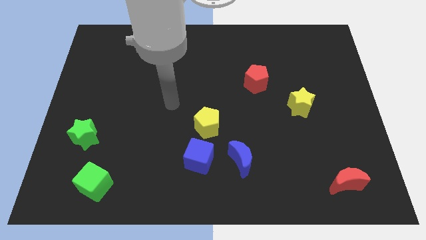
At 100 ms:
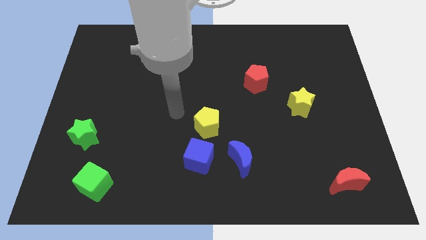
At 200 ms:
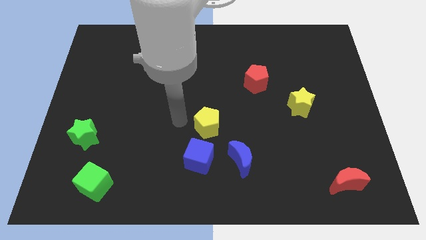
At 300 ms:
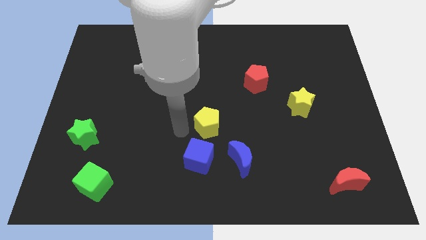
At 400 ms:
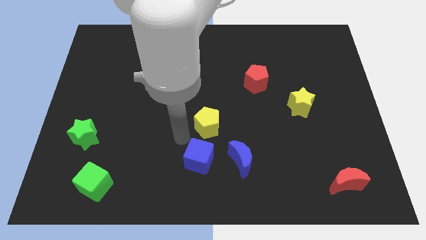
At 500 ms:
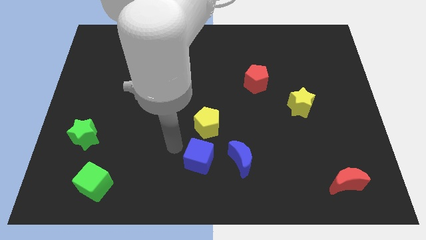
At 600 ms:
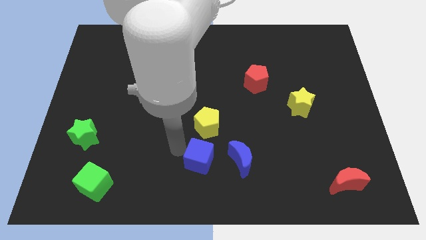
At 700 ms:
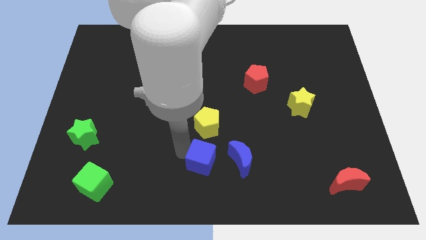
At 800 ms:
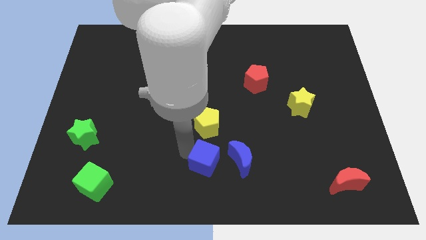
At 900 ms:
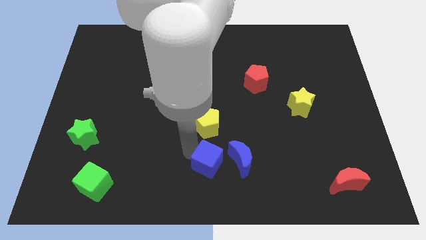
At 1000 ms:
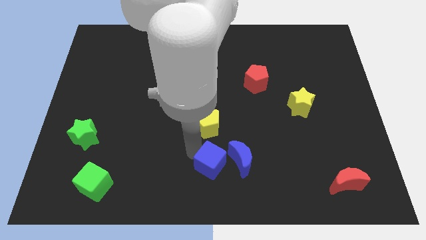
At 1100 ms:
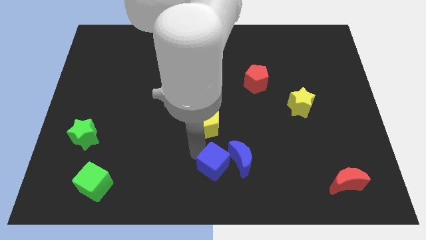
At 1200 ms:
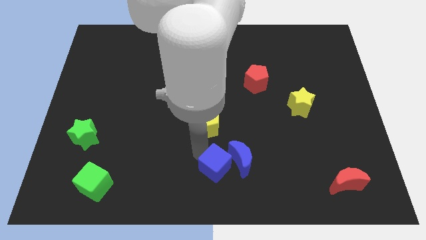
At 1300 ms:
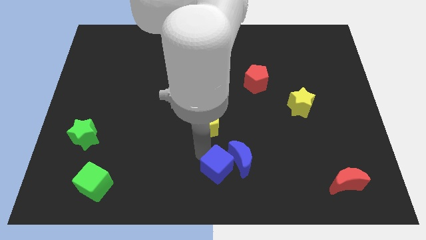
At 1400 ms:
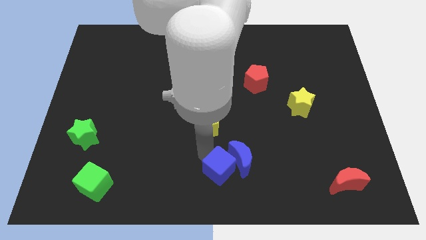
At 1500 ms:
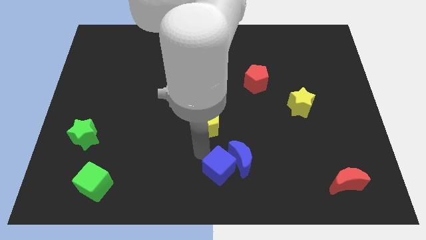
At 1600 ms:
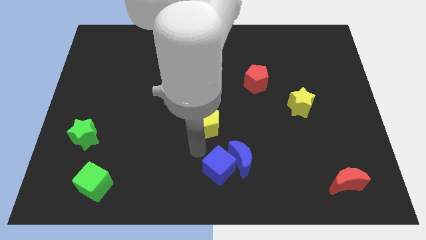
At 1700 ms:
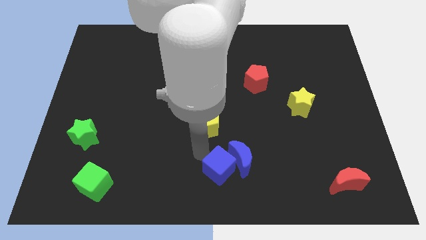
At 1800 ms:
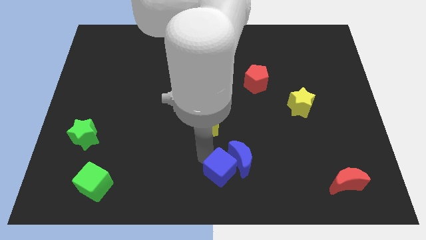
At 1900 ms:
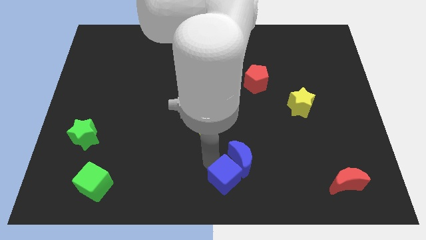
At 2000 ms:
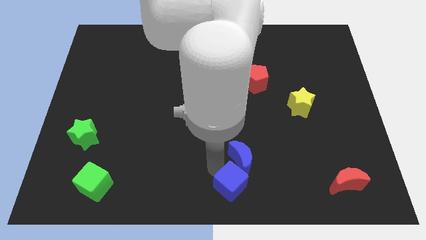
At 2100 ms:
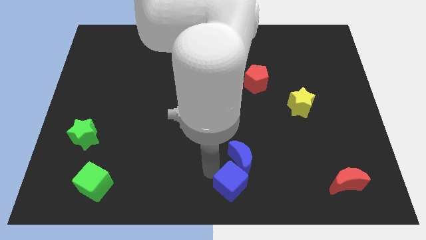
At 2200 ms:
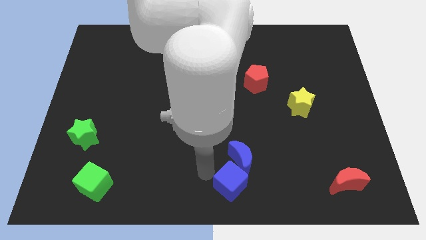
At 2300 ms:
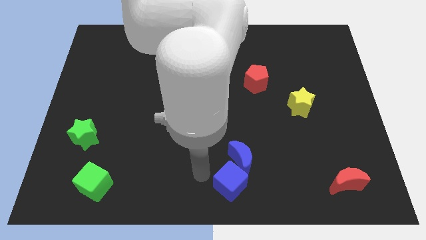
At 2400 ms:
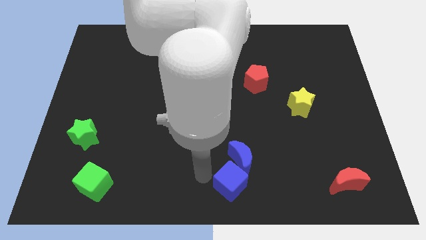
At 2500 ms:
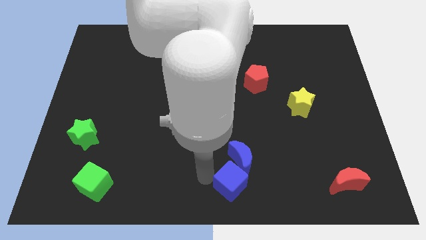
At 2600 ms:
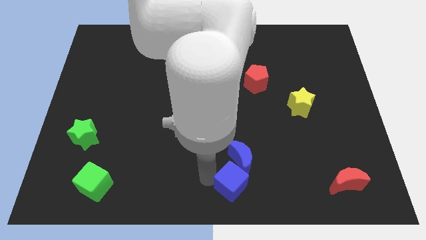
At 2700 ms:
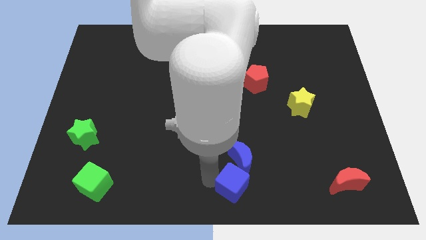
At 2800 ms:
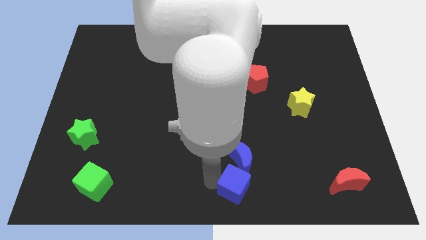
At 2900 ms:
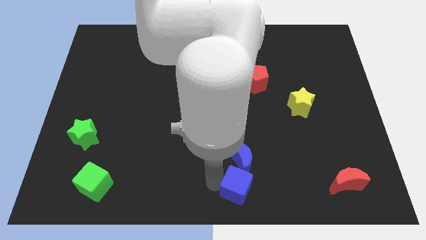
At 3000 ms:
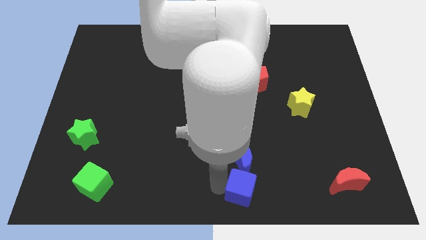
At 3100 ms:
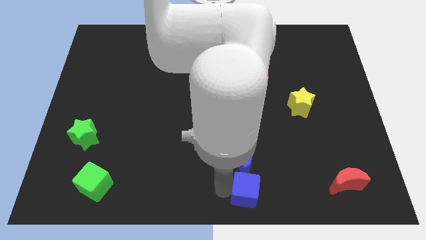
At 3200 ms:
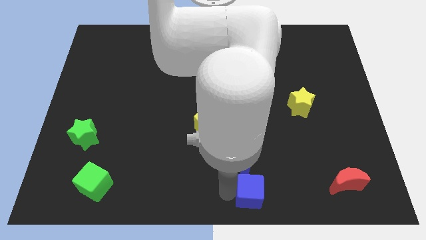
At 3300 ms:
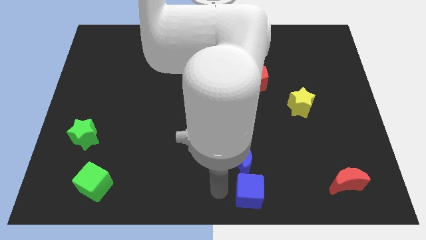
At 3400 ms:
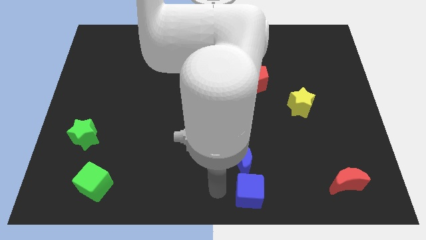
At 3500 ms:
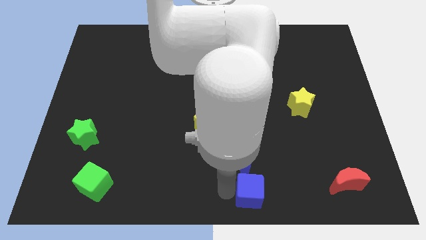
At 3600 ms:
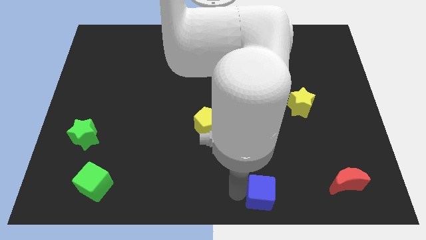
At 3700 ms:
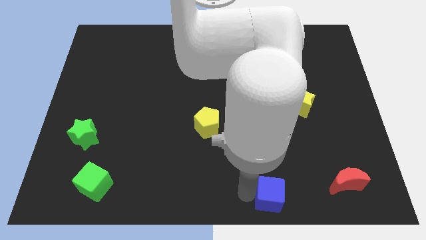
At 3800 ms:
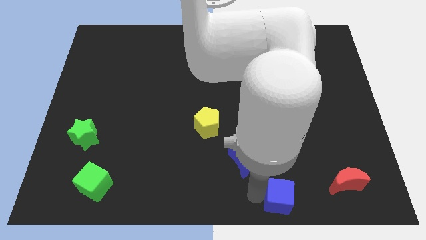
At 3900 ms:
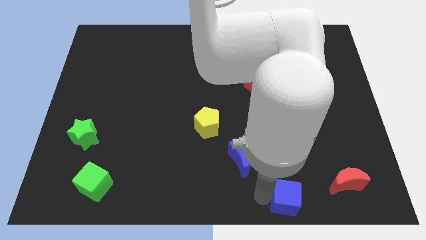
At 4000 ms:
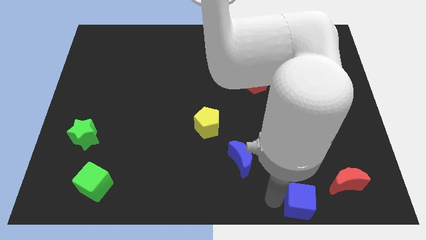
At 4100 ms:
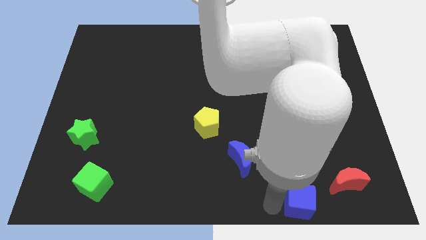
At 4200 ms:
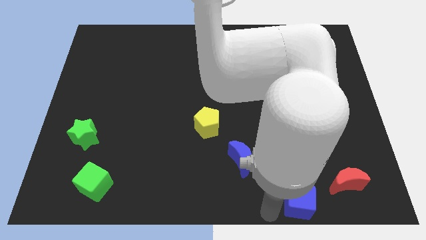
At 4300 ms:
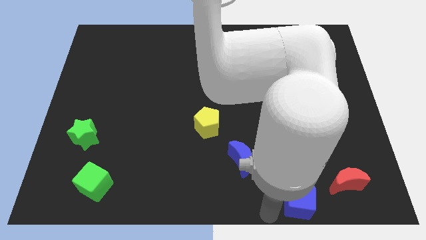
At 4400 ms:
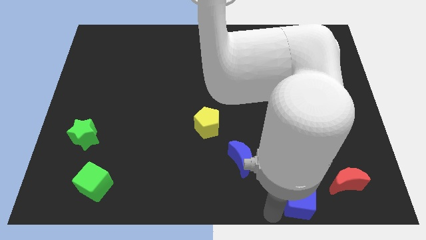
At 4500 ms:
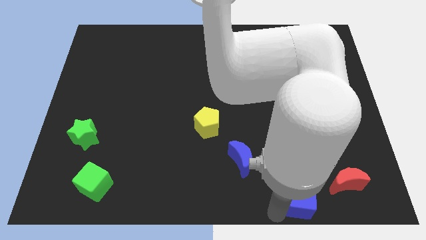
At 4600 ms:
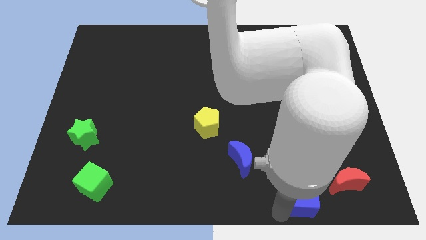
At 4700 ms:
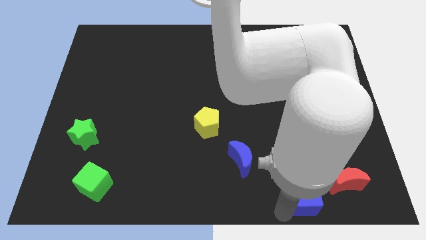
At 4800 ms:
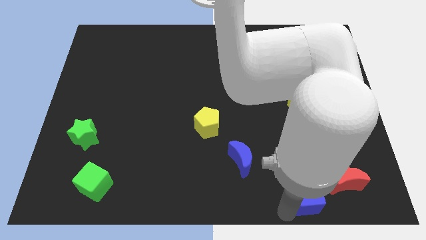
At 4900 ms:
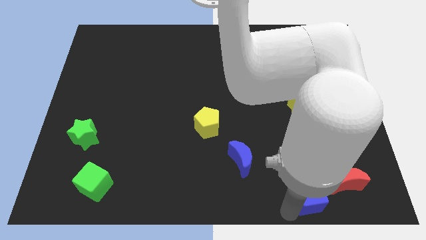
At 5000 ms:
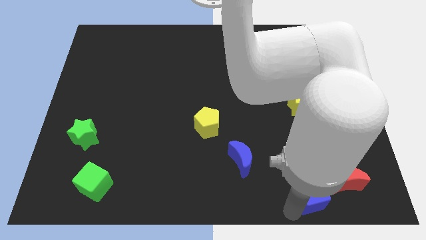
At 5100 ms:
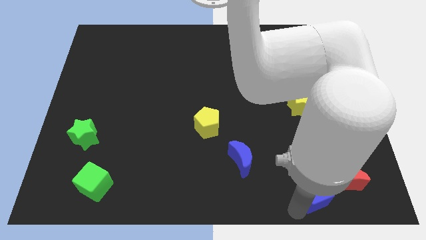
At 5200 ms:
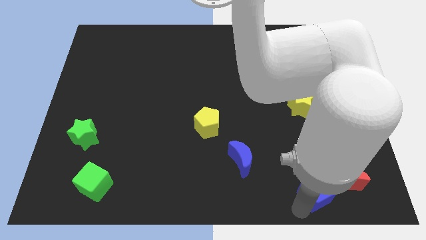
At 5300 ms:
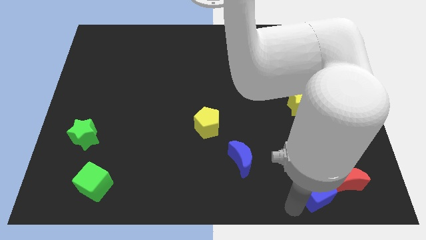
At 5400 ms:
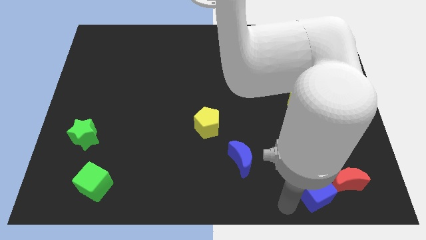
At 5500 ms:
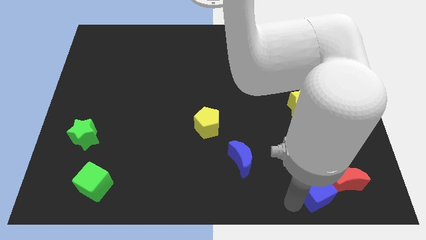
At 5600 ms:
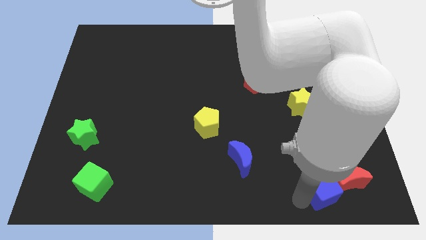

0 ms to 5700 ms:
push the blue cube towards the red moon

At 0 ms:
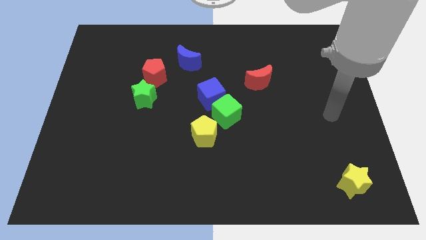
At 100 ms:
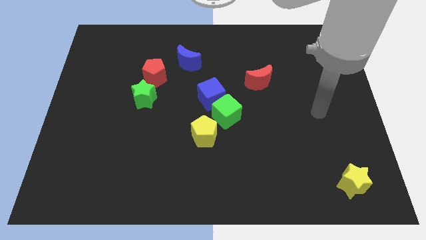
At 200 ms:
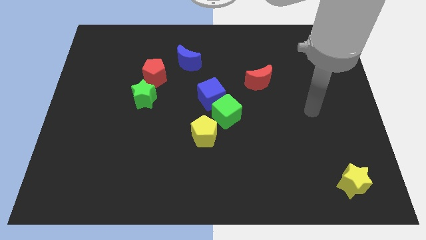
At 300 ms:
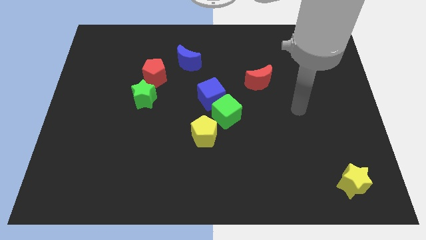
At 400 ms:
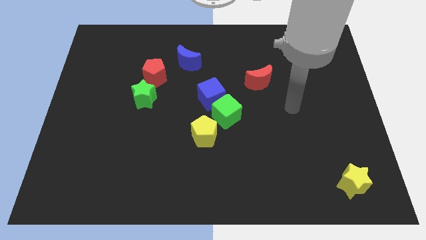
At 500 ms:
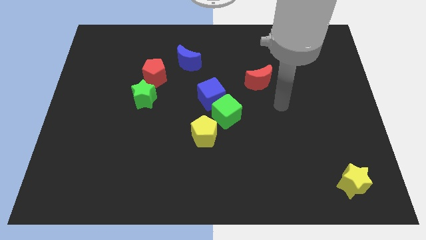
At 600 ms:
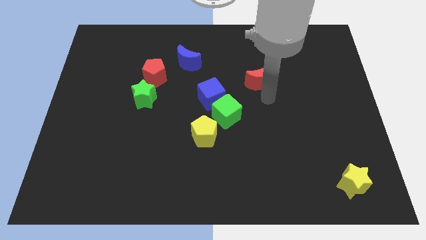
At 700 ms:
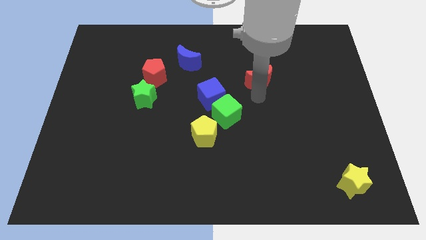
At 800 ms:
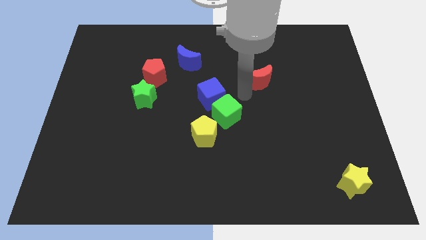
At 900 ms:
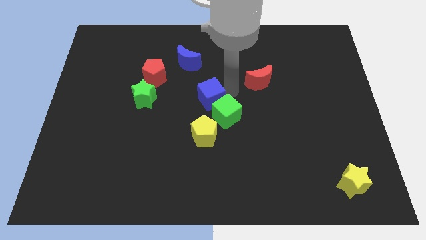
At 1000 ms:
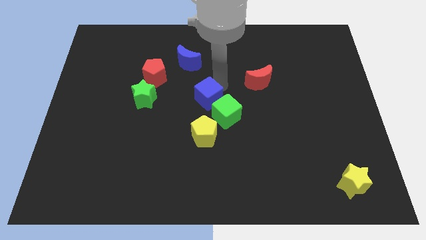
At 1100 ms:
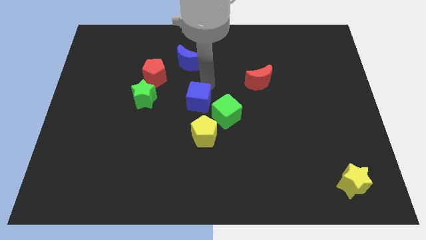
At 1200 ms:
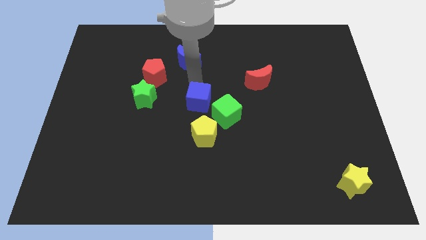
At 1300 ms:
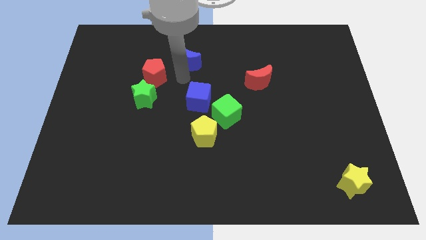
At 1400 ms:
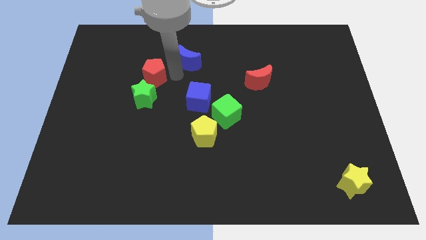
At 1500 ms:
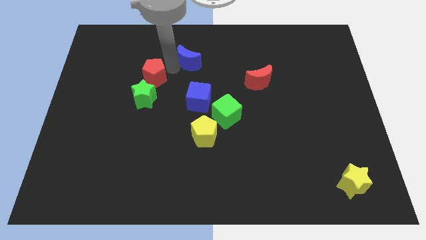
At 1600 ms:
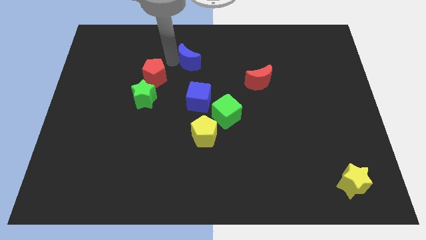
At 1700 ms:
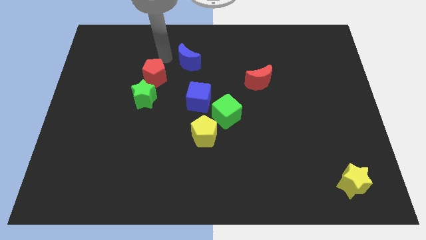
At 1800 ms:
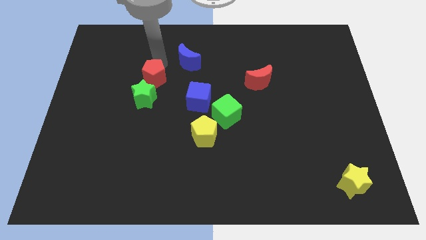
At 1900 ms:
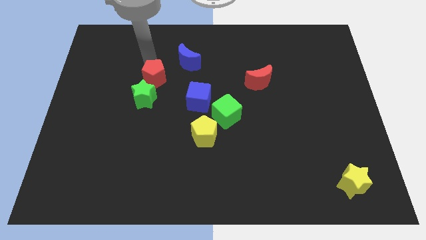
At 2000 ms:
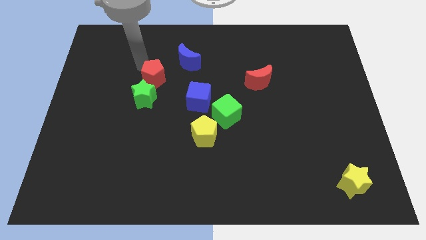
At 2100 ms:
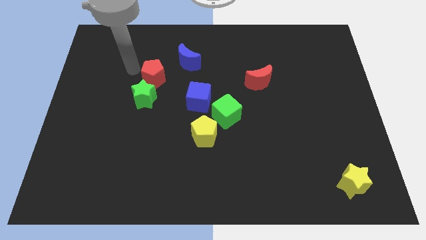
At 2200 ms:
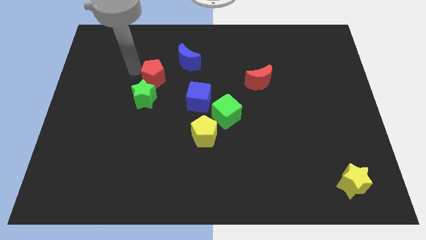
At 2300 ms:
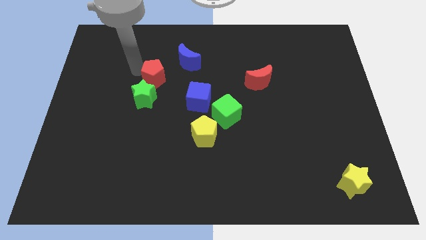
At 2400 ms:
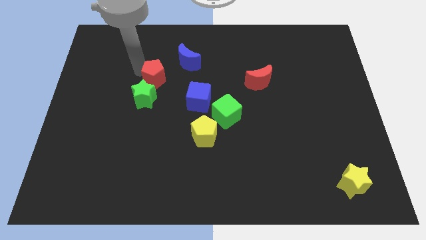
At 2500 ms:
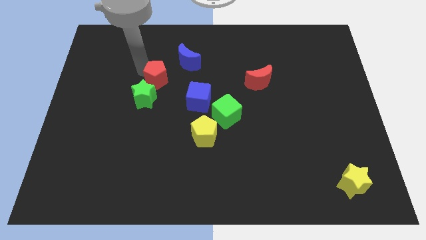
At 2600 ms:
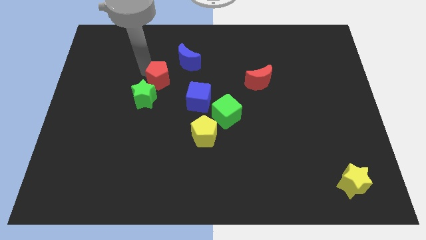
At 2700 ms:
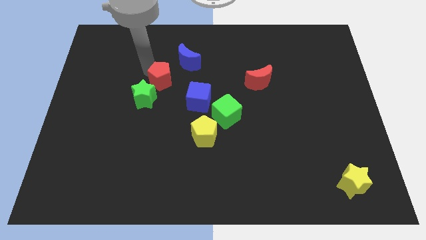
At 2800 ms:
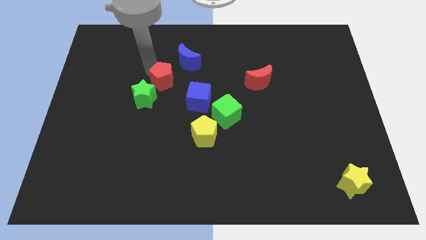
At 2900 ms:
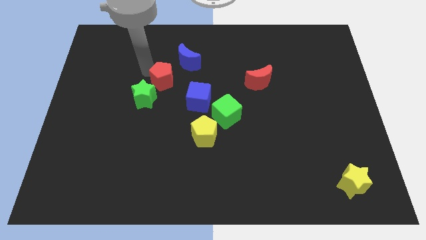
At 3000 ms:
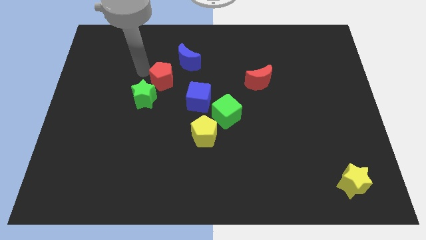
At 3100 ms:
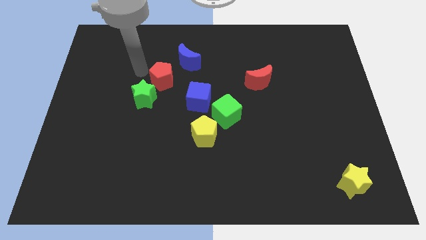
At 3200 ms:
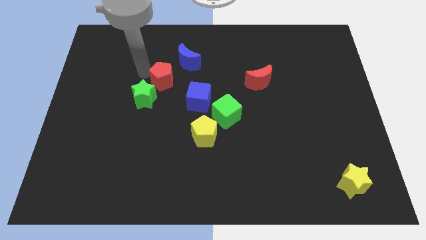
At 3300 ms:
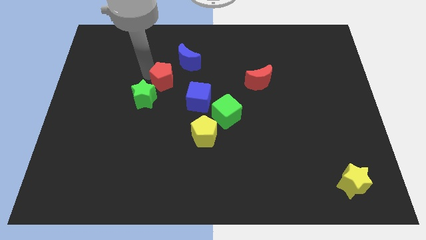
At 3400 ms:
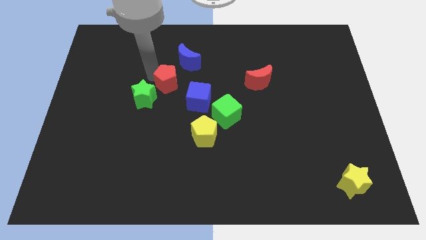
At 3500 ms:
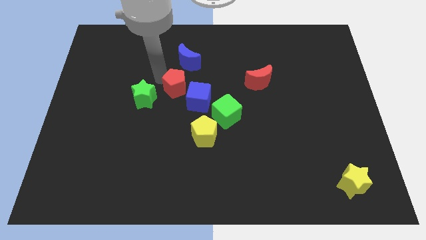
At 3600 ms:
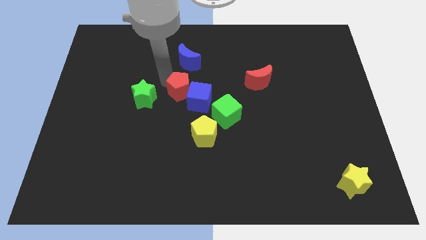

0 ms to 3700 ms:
slide the red pentagon to the blue cube
